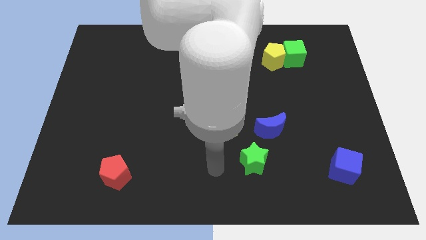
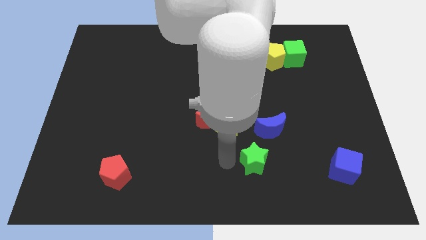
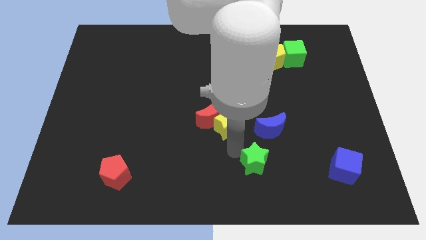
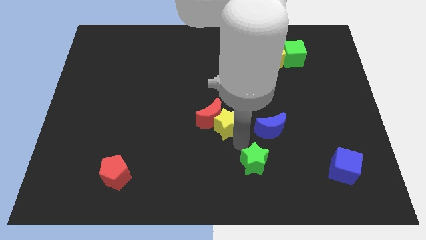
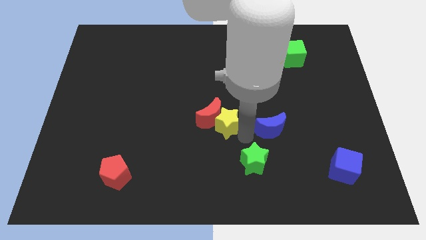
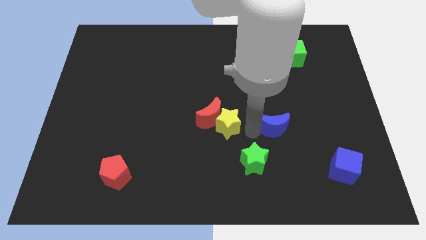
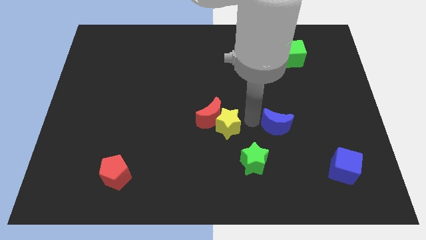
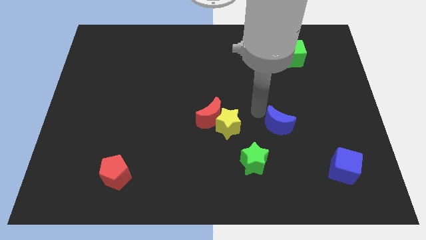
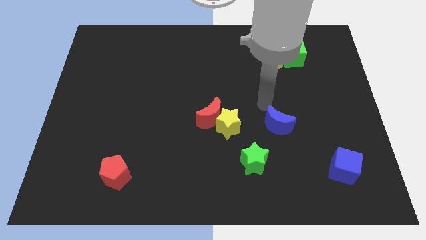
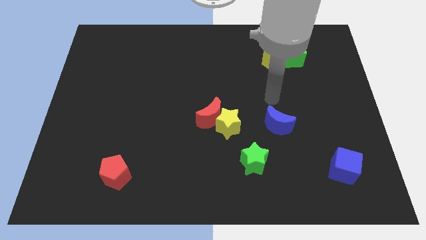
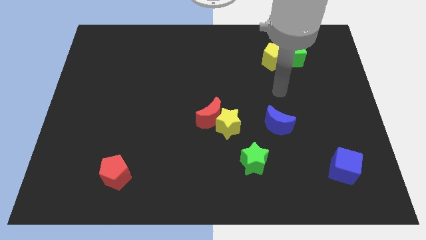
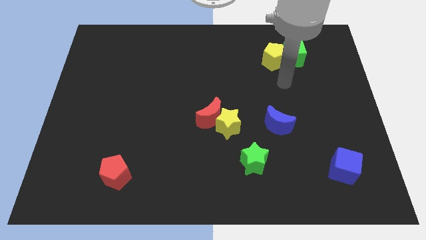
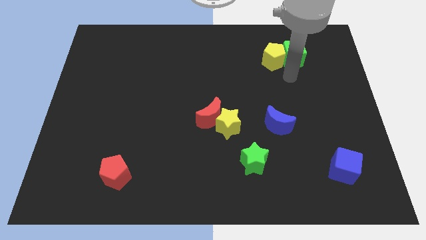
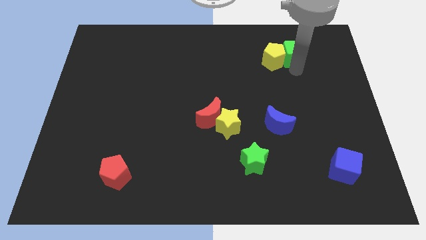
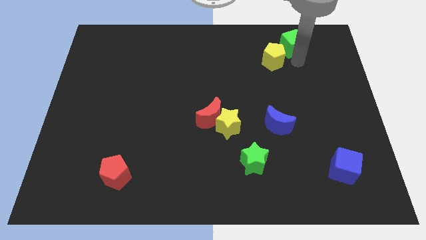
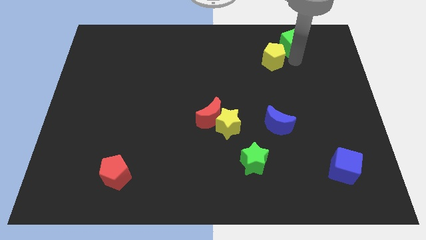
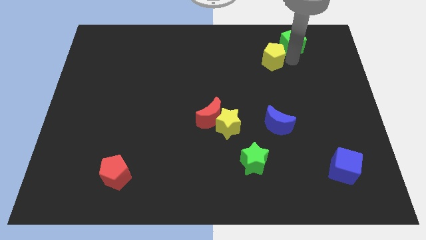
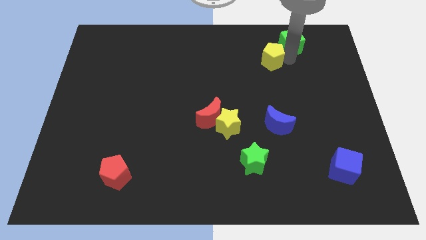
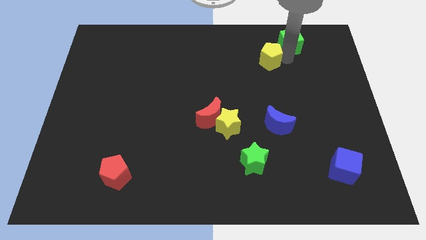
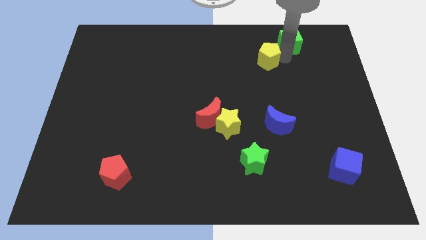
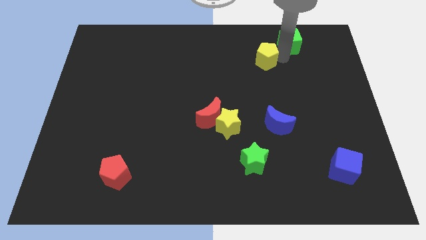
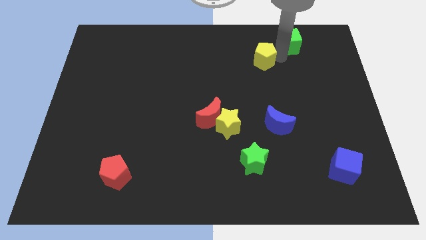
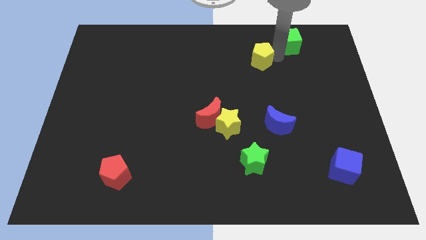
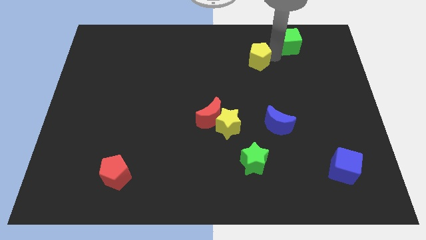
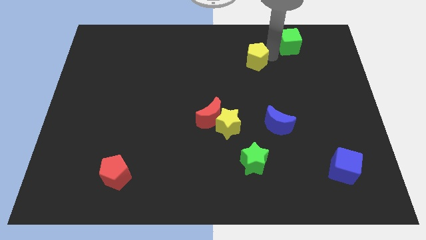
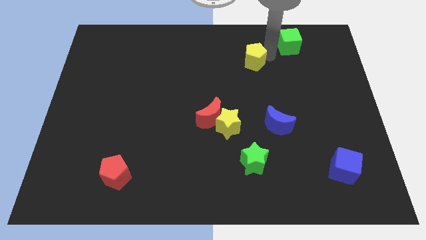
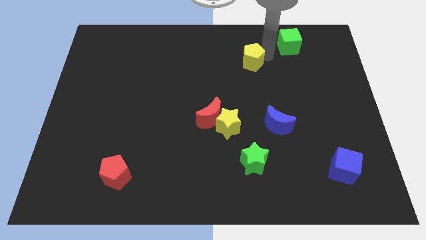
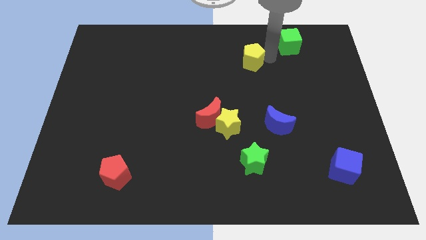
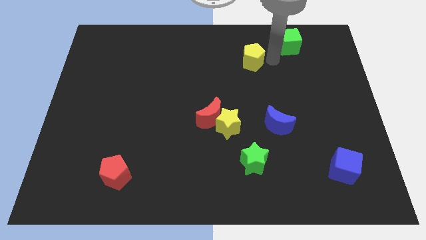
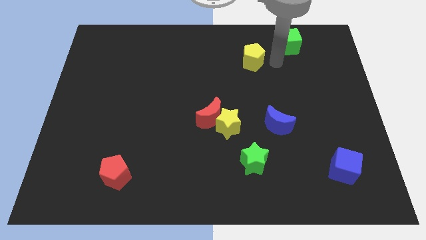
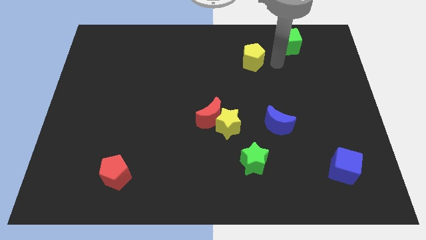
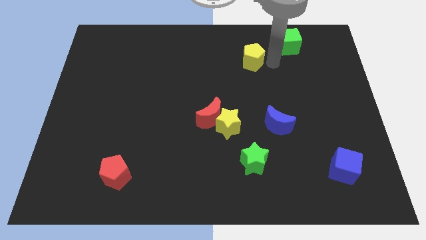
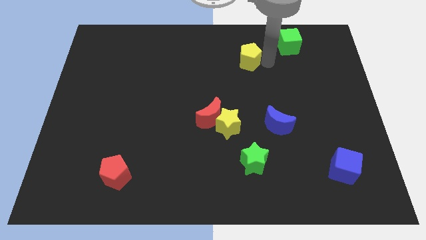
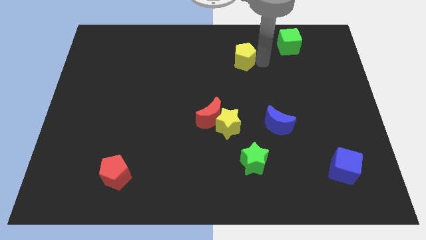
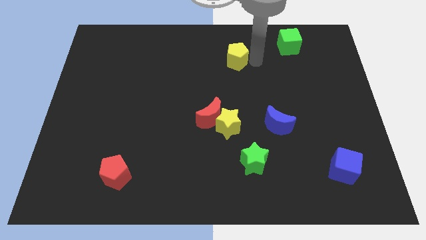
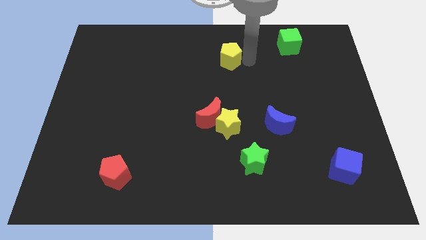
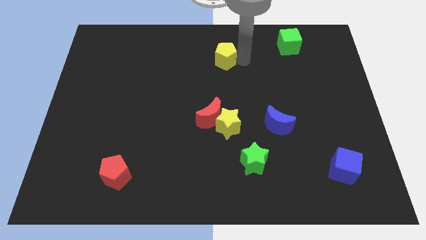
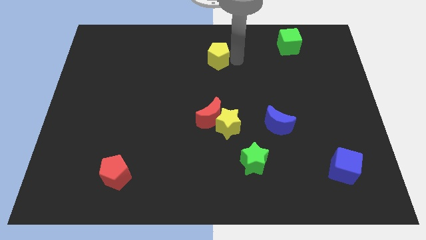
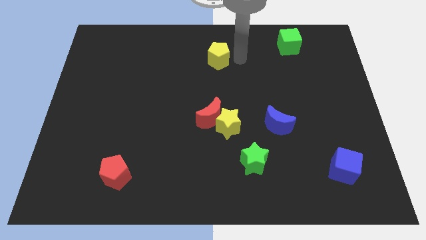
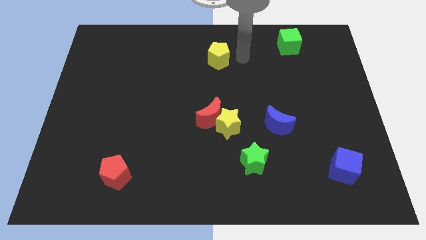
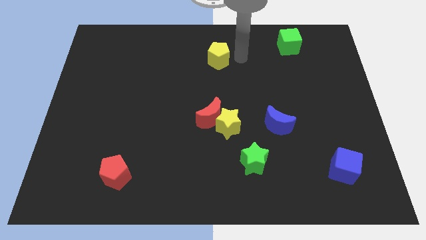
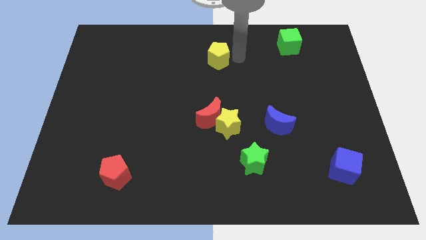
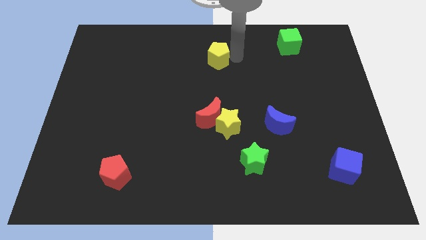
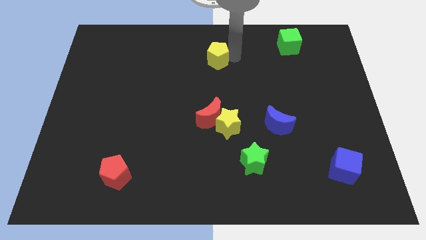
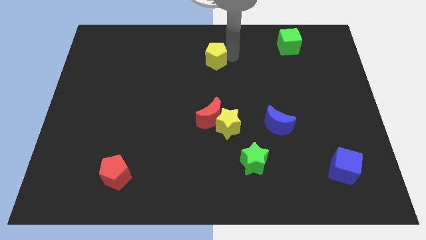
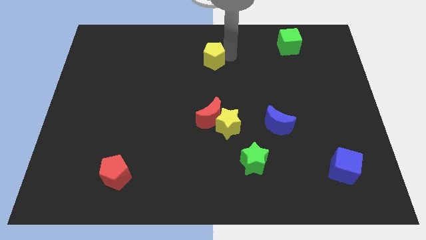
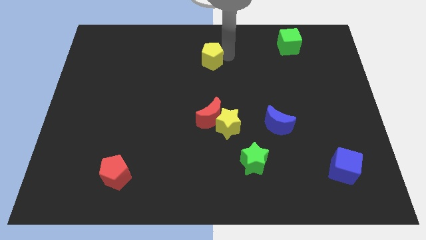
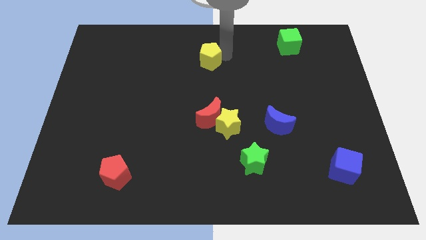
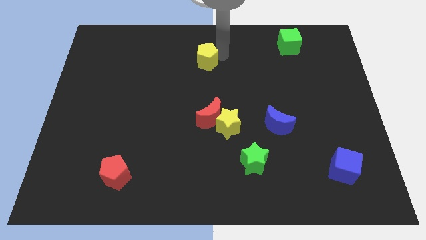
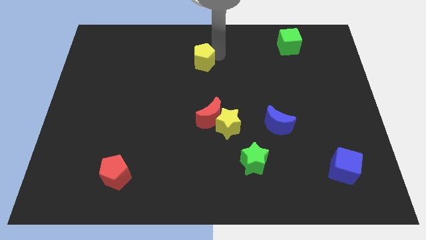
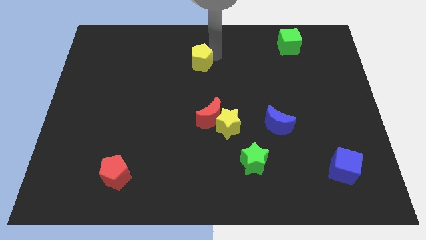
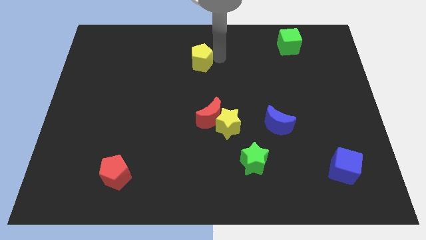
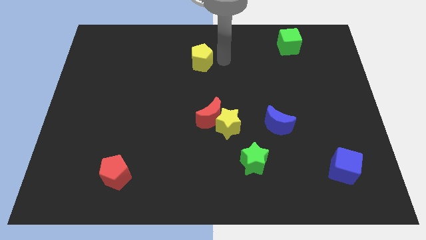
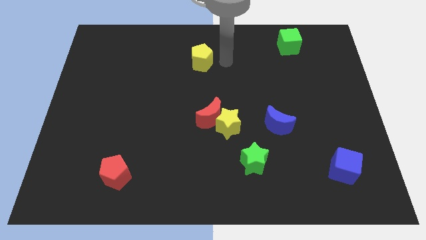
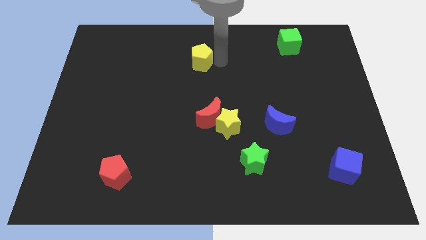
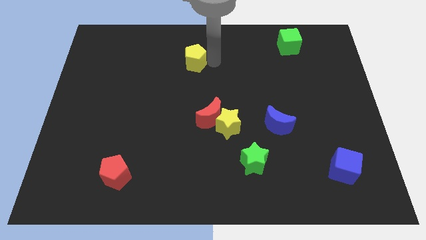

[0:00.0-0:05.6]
move the yellow pentagon to the left

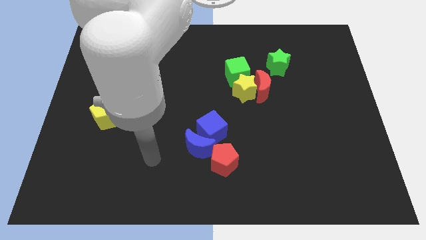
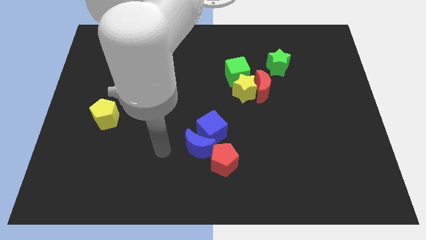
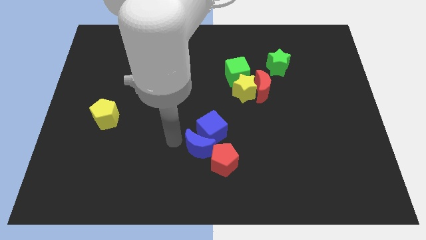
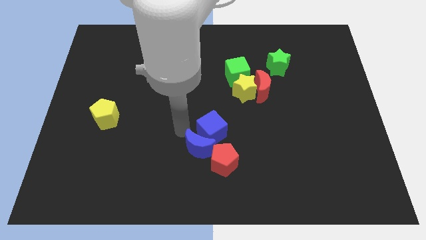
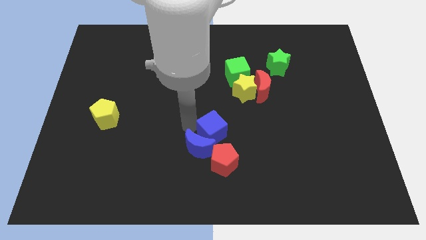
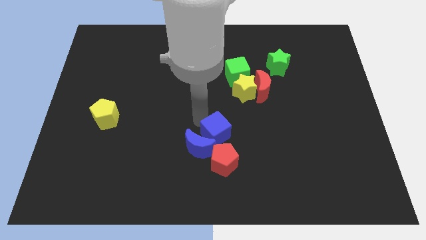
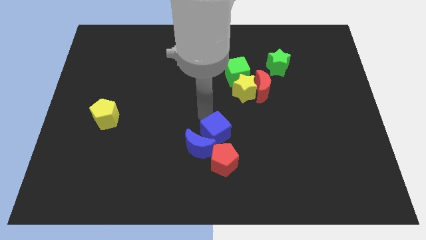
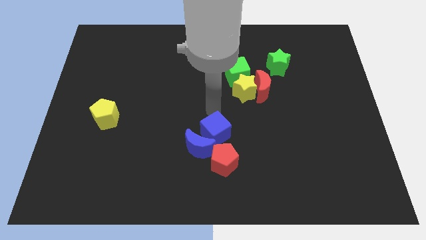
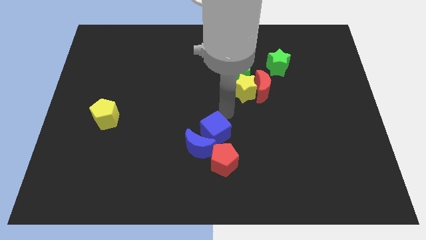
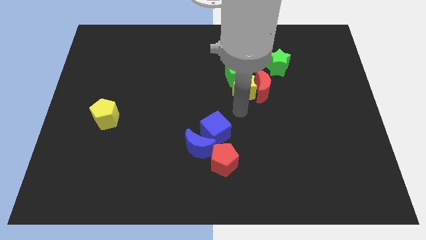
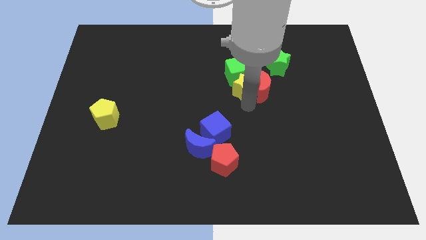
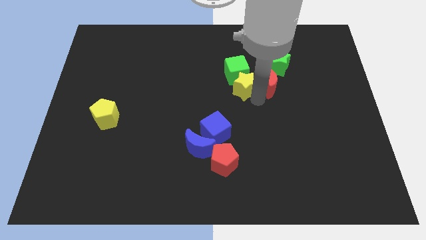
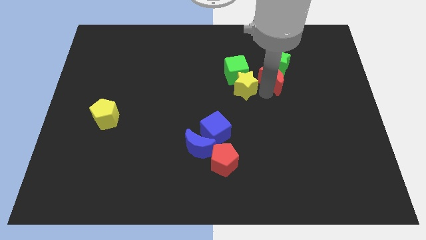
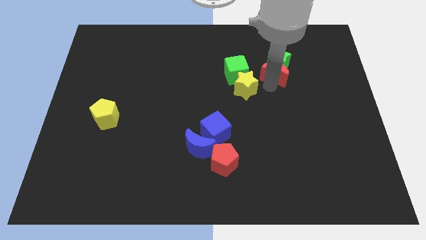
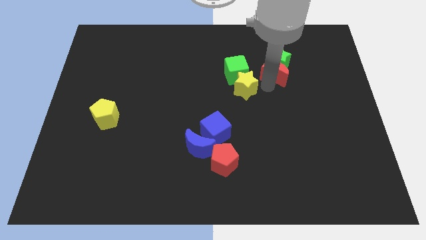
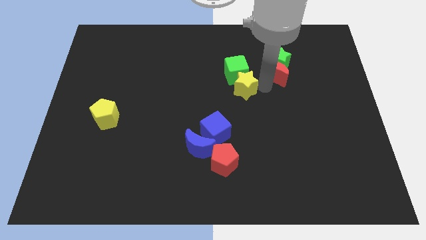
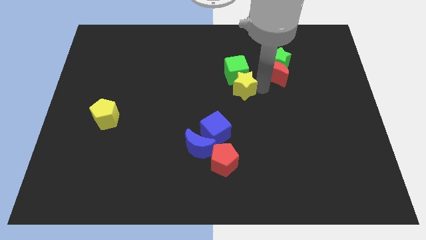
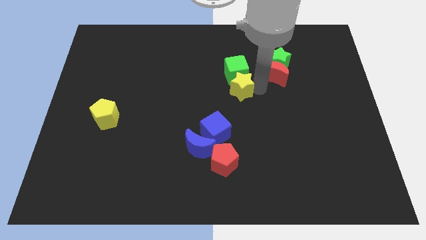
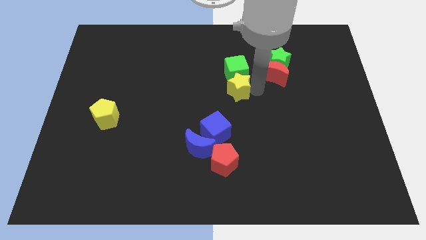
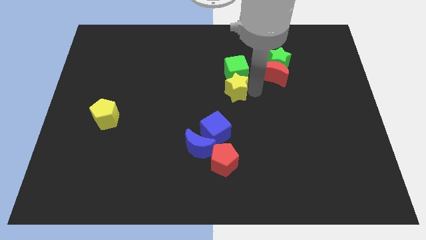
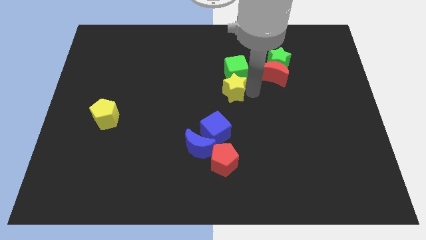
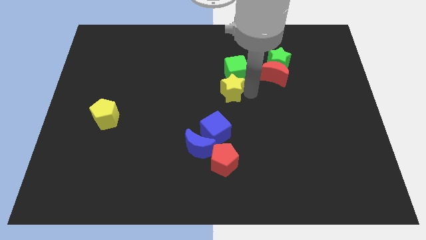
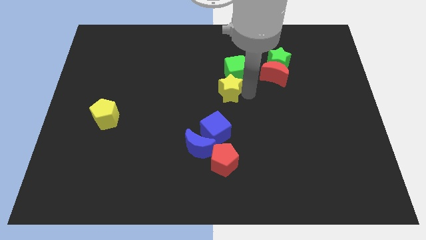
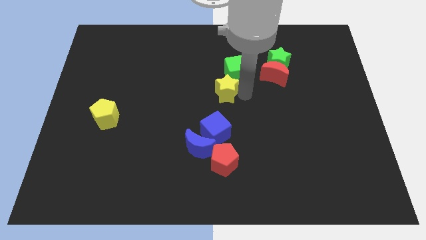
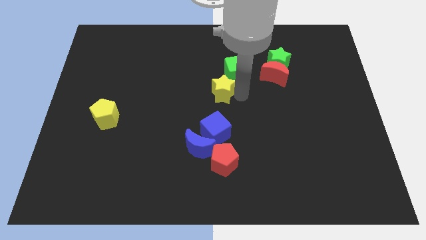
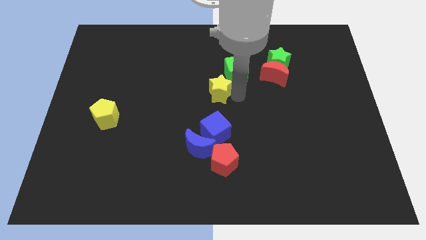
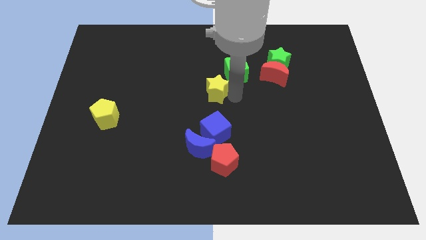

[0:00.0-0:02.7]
move the yellow star left a little bit

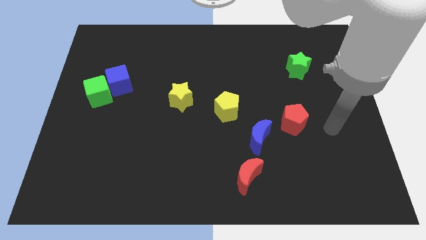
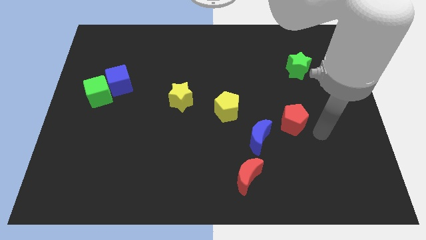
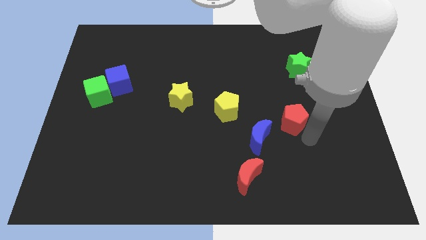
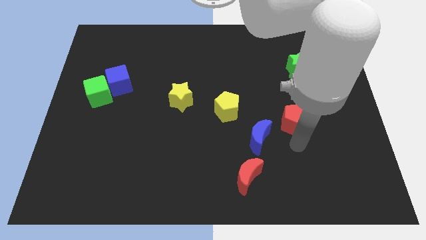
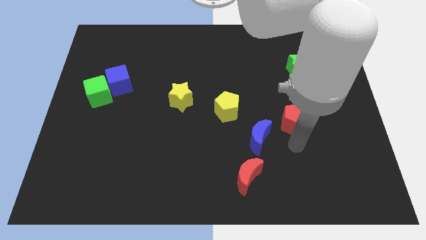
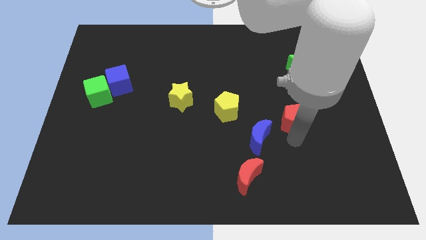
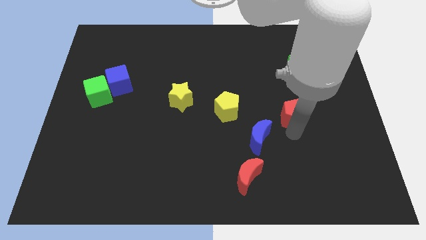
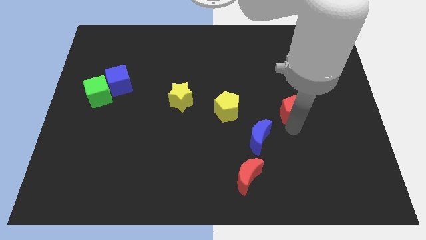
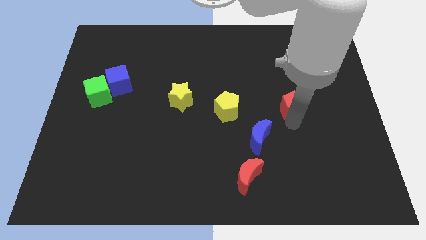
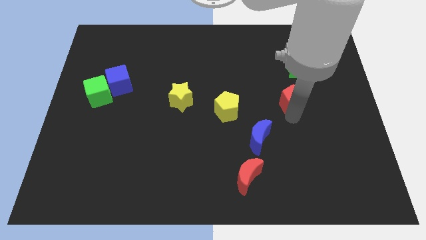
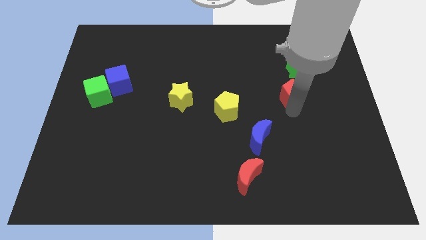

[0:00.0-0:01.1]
push the red pentagon slightly up
